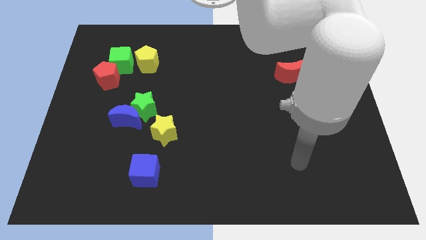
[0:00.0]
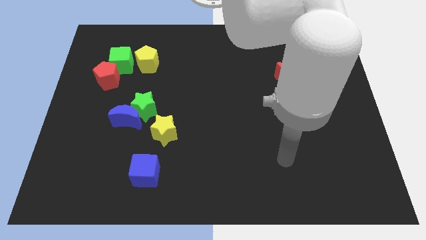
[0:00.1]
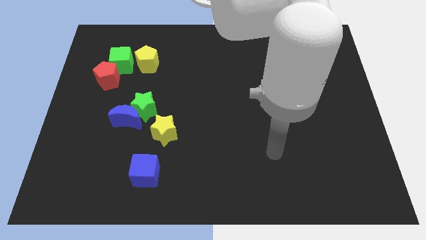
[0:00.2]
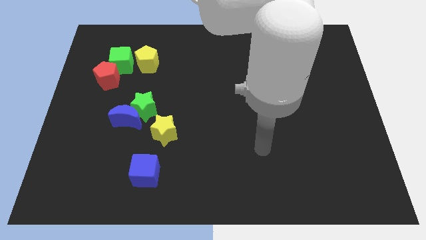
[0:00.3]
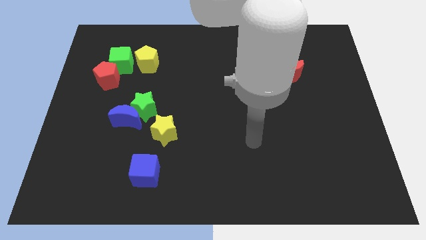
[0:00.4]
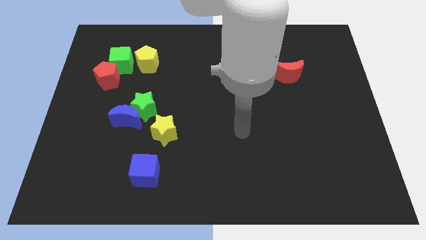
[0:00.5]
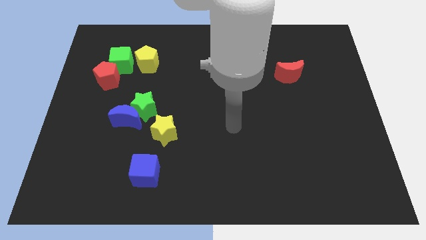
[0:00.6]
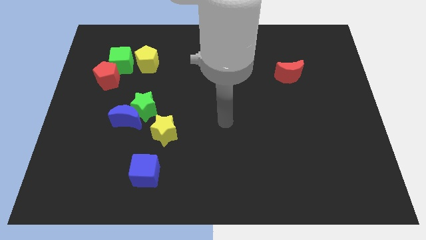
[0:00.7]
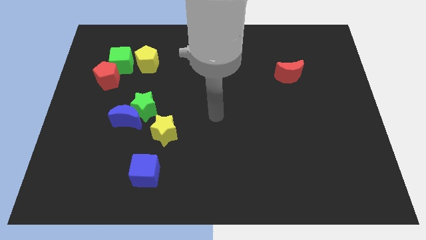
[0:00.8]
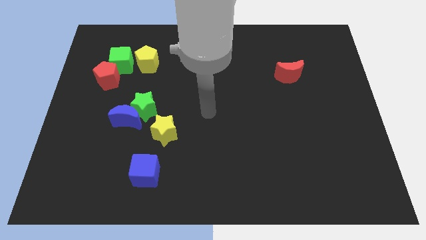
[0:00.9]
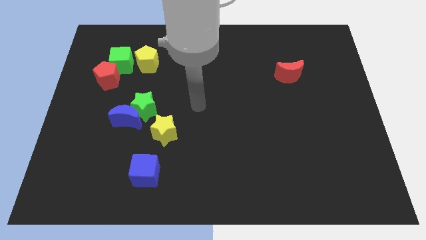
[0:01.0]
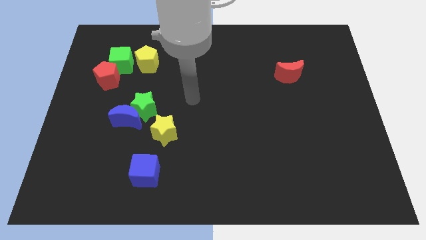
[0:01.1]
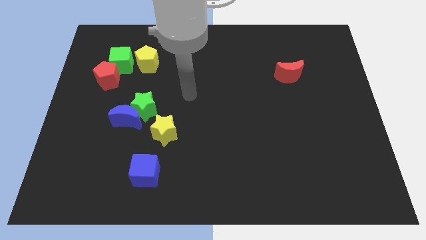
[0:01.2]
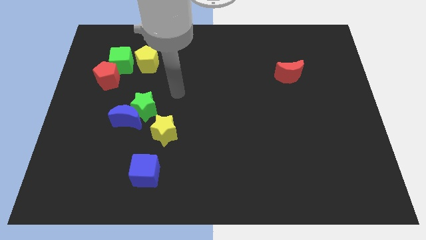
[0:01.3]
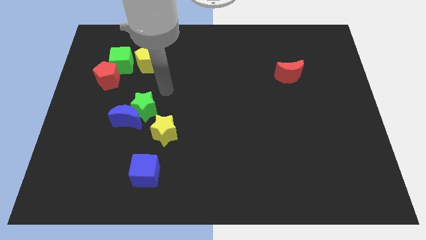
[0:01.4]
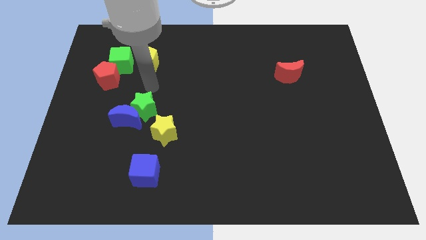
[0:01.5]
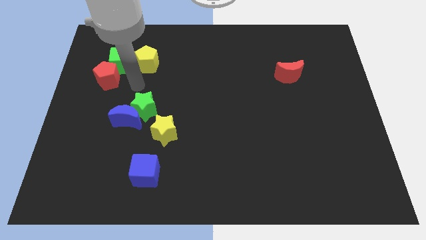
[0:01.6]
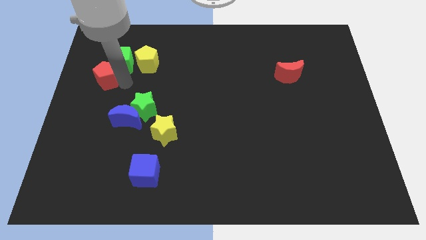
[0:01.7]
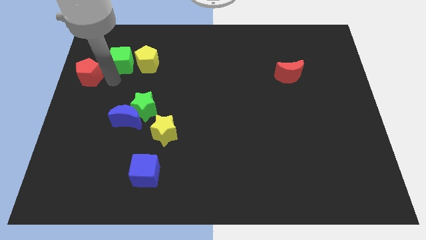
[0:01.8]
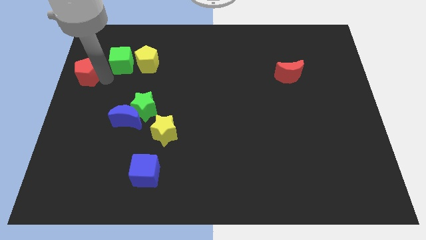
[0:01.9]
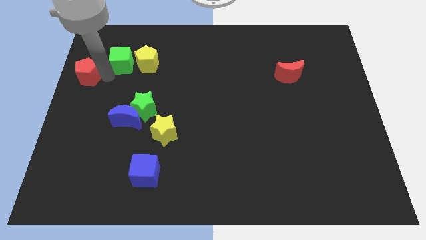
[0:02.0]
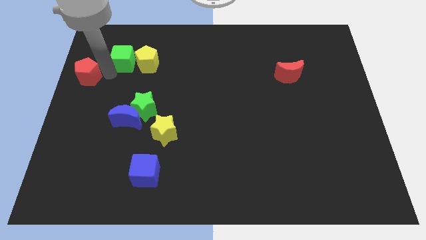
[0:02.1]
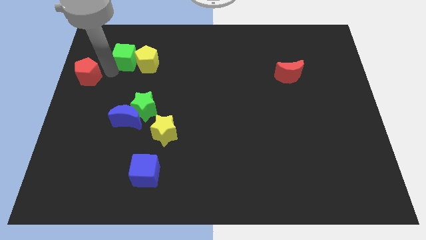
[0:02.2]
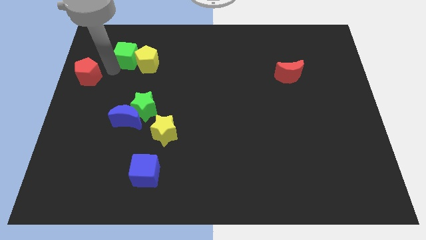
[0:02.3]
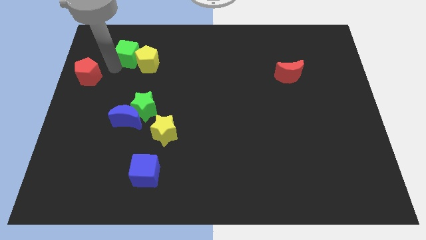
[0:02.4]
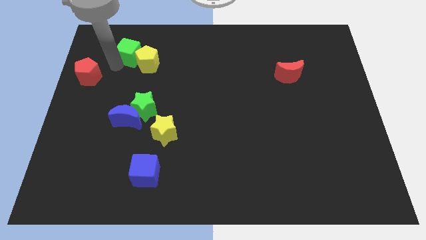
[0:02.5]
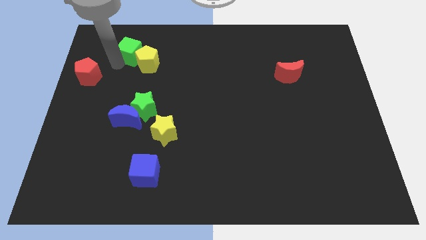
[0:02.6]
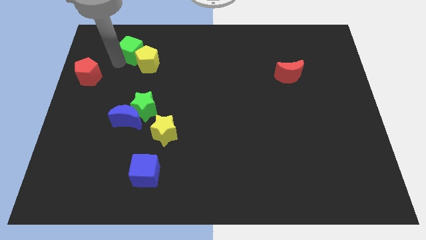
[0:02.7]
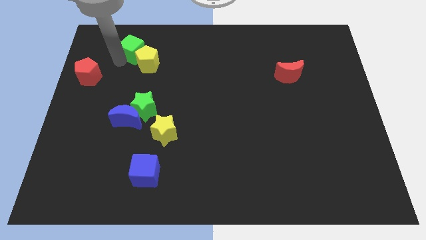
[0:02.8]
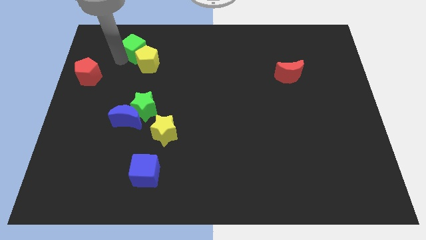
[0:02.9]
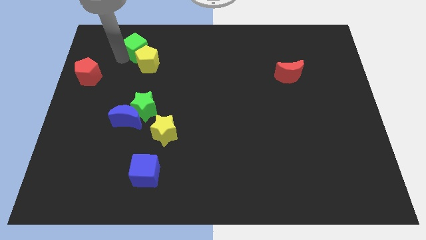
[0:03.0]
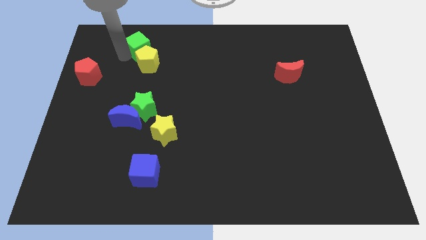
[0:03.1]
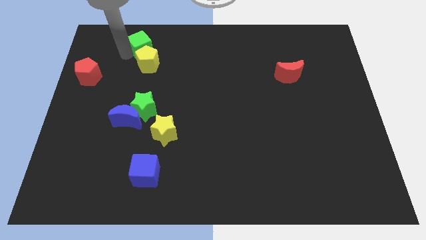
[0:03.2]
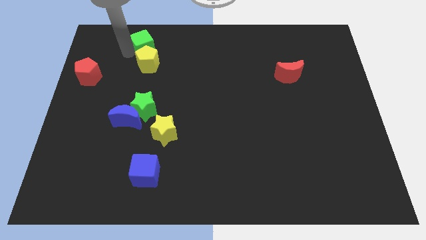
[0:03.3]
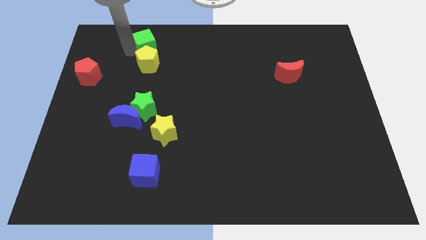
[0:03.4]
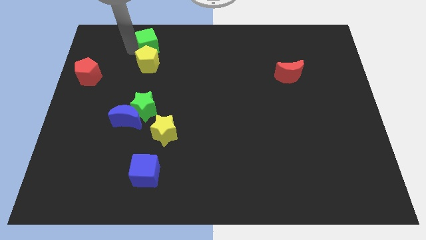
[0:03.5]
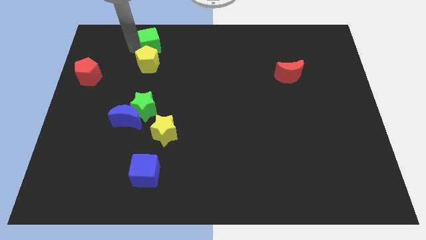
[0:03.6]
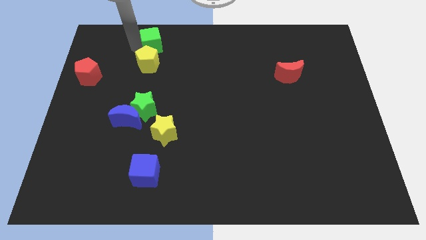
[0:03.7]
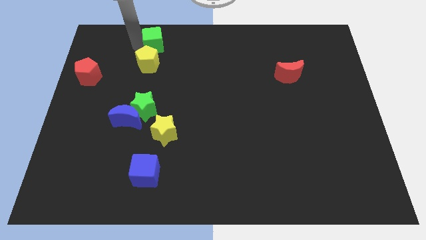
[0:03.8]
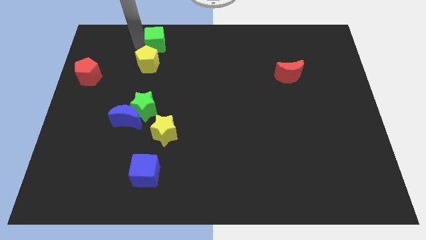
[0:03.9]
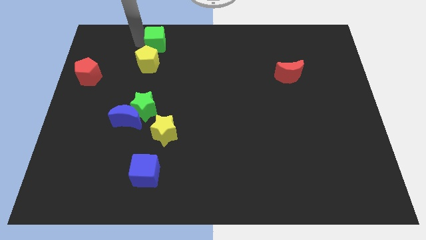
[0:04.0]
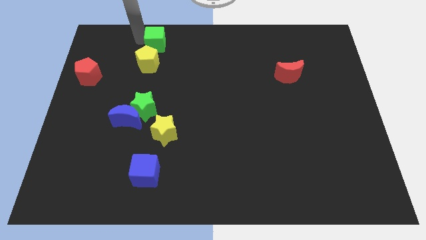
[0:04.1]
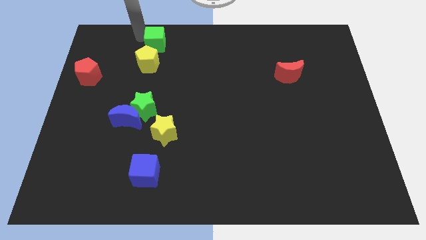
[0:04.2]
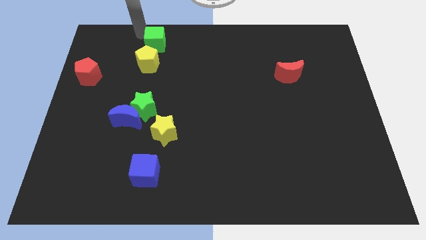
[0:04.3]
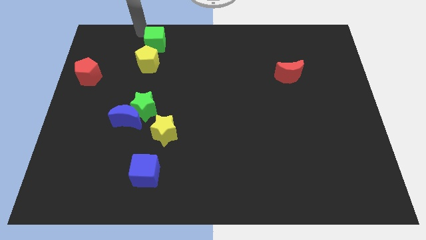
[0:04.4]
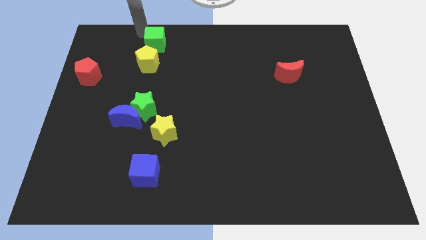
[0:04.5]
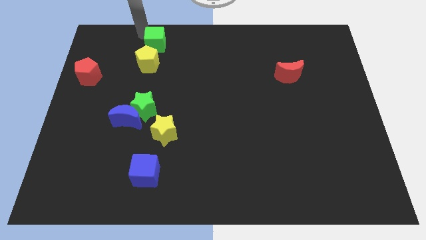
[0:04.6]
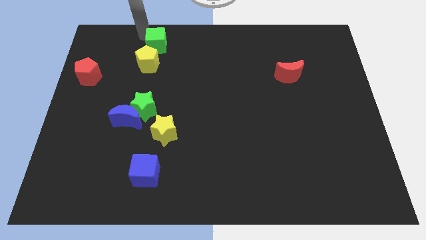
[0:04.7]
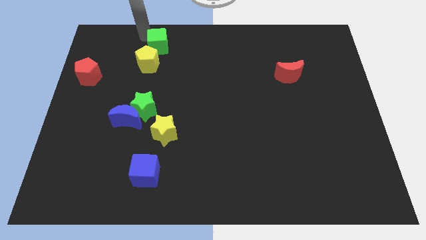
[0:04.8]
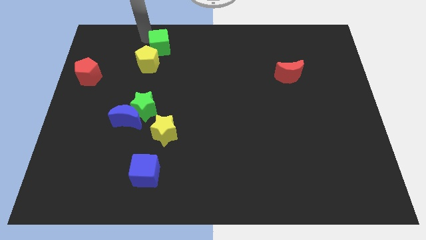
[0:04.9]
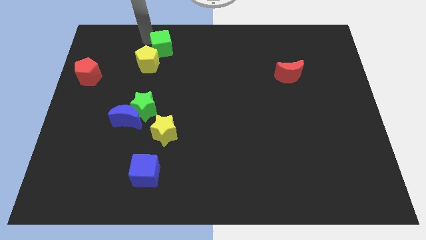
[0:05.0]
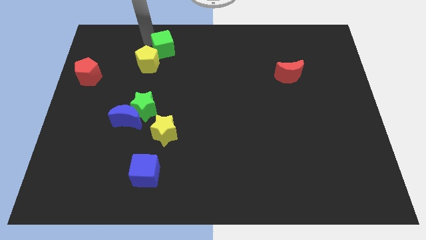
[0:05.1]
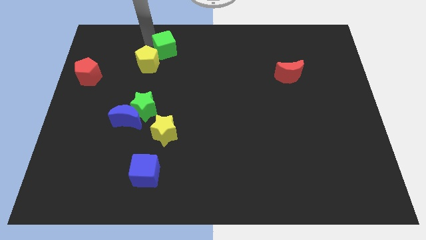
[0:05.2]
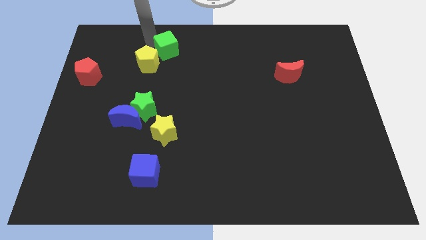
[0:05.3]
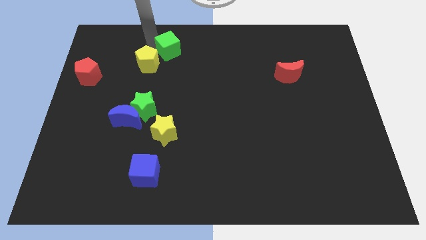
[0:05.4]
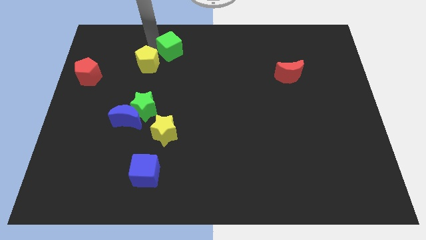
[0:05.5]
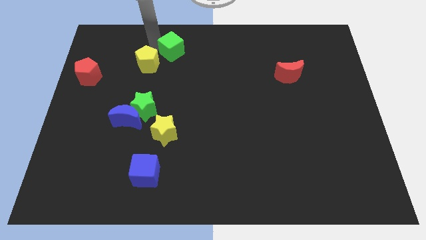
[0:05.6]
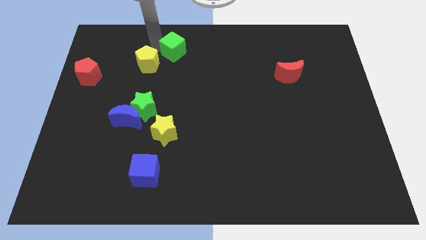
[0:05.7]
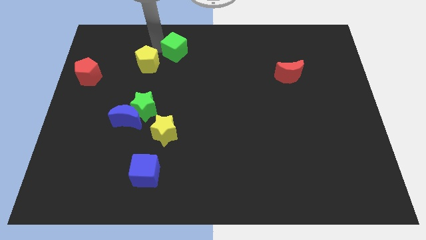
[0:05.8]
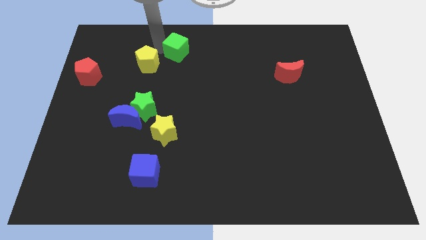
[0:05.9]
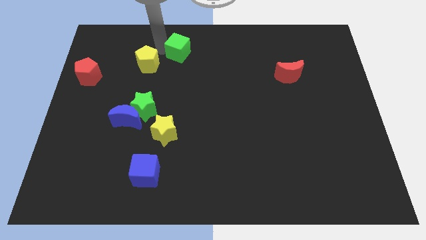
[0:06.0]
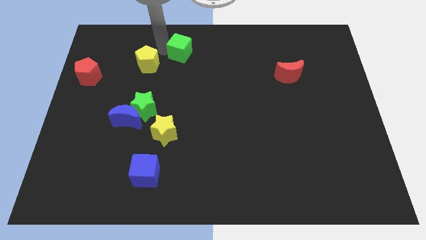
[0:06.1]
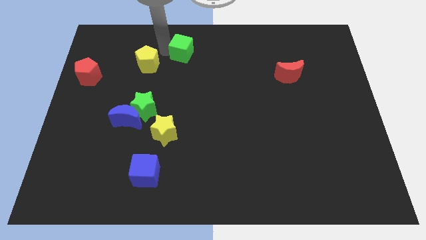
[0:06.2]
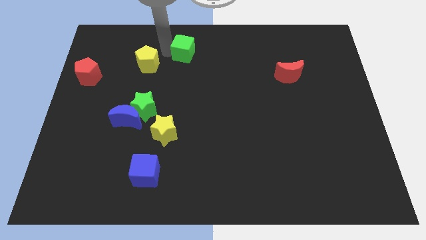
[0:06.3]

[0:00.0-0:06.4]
put the green cube to the top side
